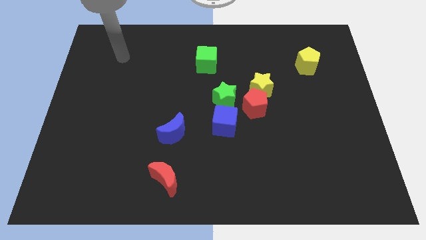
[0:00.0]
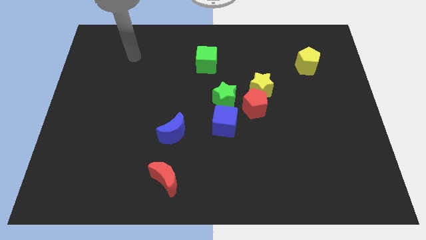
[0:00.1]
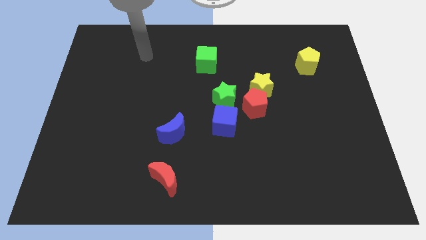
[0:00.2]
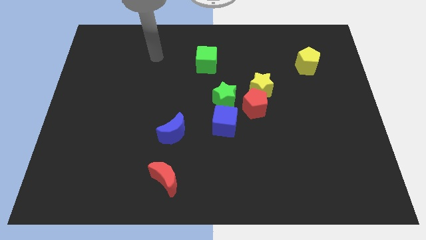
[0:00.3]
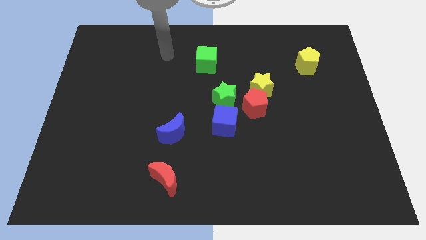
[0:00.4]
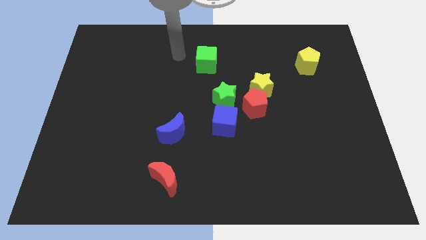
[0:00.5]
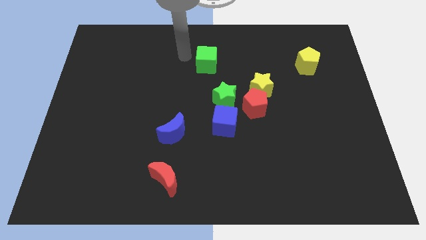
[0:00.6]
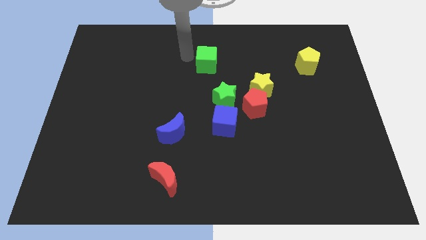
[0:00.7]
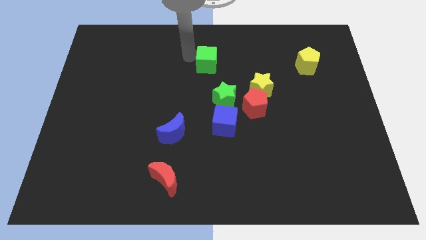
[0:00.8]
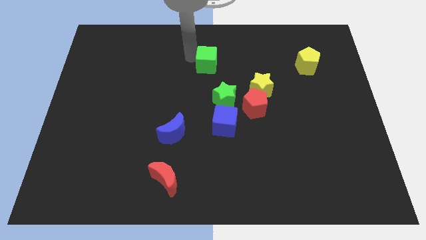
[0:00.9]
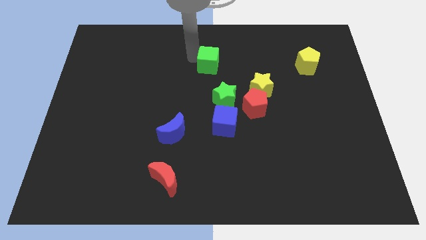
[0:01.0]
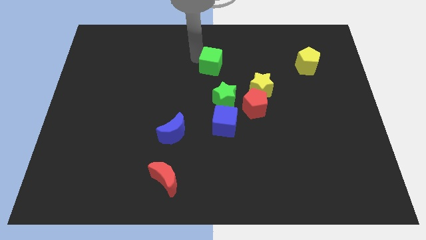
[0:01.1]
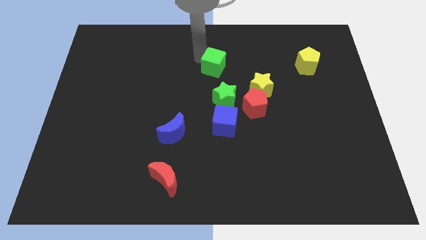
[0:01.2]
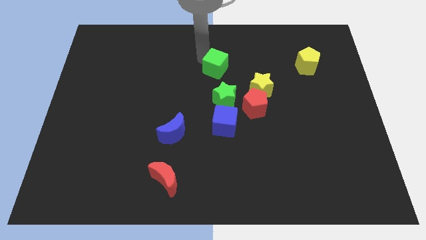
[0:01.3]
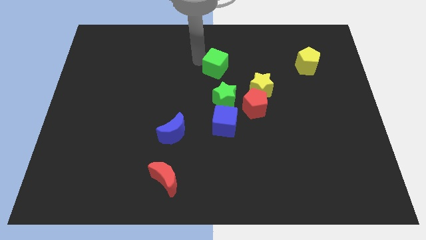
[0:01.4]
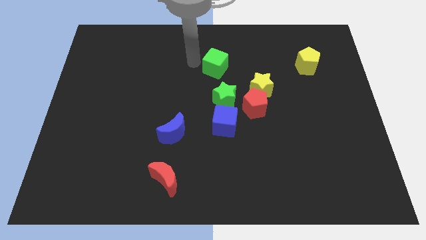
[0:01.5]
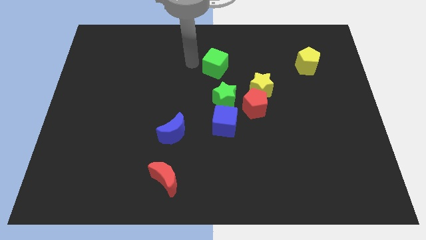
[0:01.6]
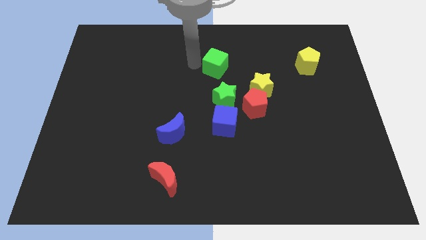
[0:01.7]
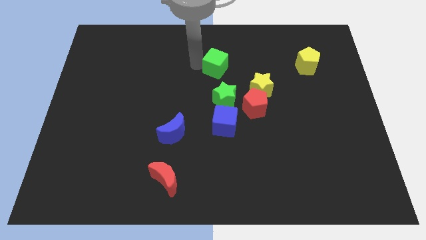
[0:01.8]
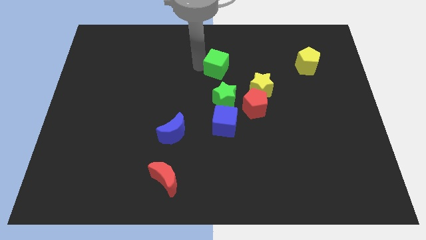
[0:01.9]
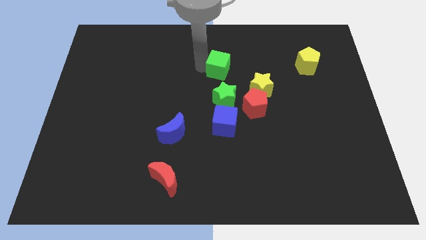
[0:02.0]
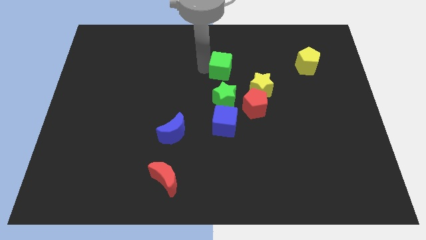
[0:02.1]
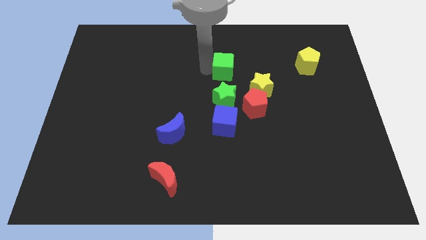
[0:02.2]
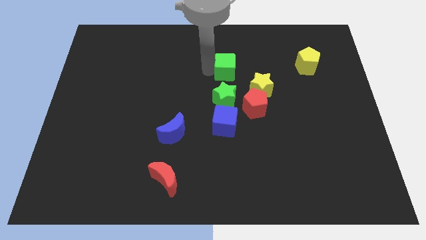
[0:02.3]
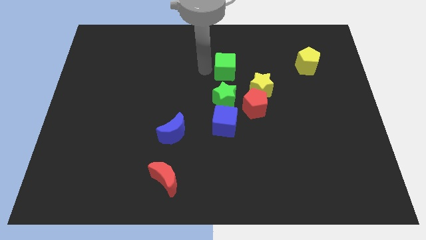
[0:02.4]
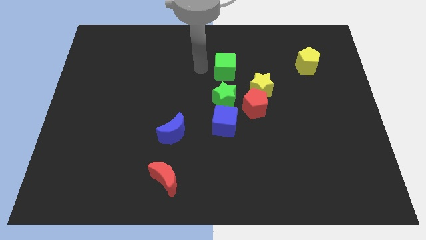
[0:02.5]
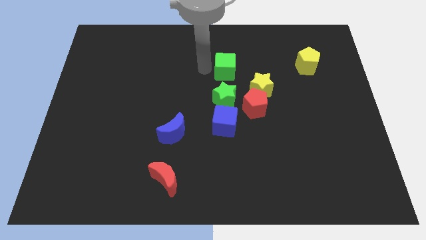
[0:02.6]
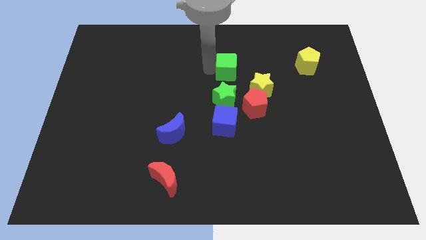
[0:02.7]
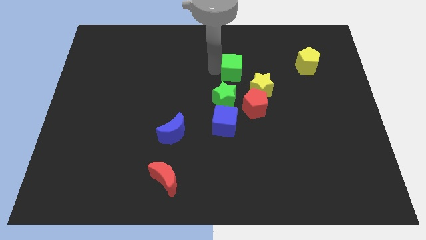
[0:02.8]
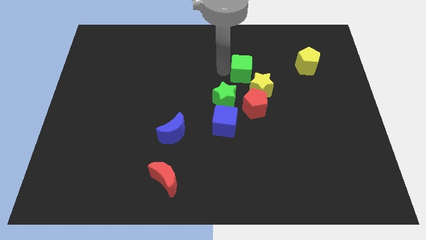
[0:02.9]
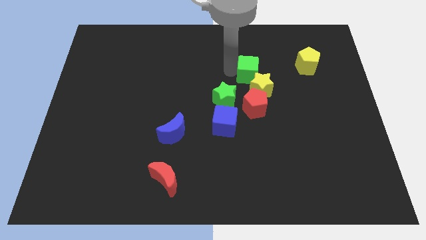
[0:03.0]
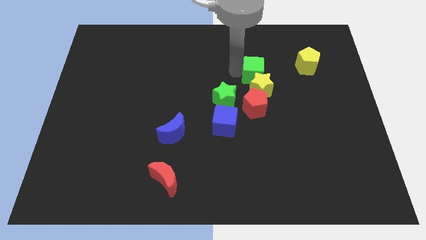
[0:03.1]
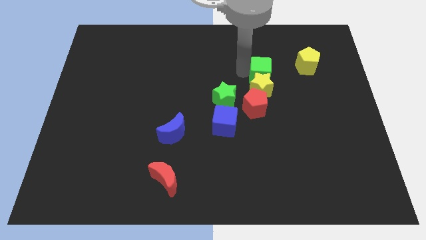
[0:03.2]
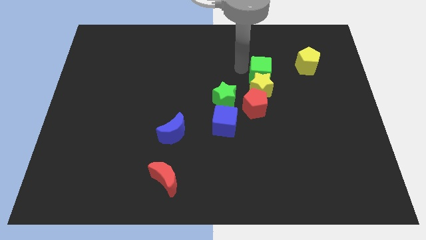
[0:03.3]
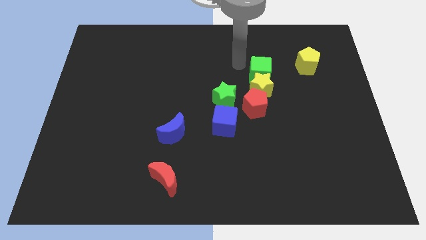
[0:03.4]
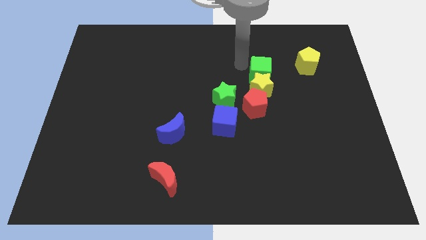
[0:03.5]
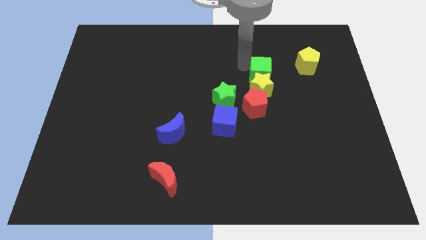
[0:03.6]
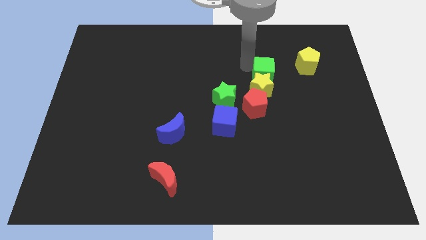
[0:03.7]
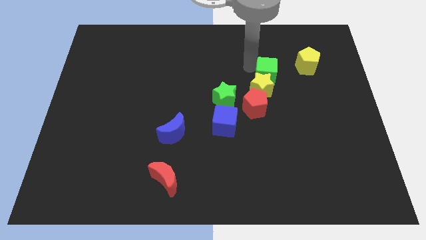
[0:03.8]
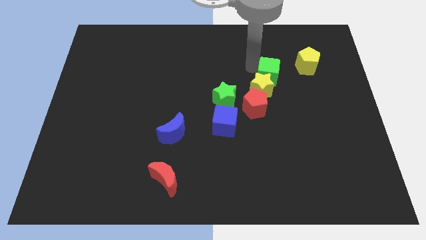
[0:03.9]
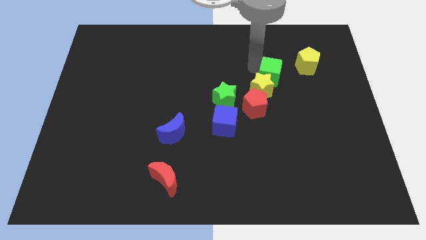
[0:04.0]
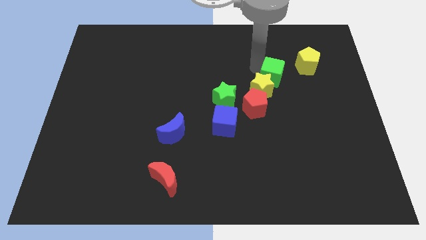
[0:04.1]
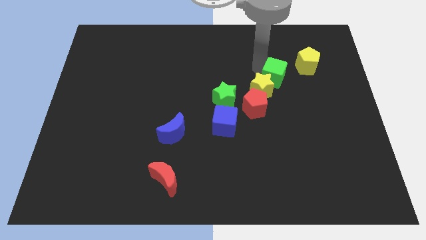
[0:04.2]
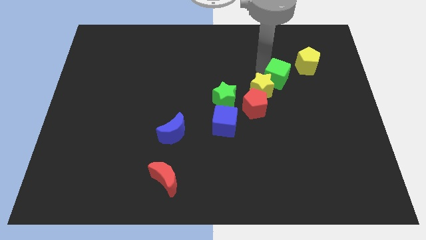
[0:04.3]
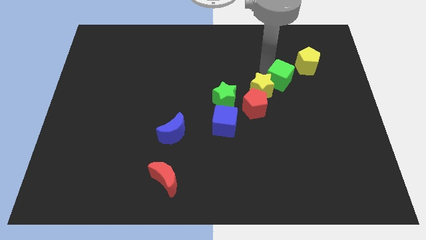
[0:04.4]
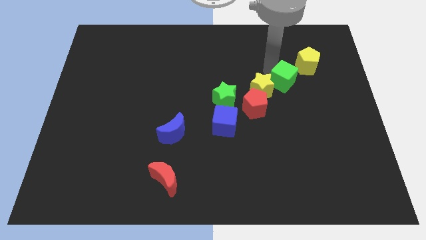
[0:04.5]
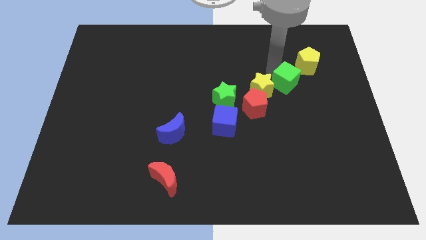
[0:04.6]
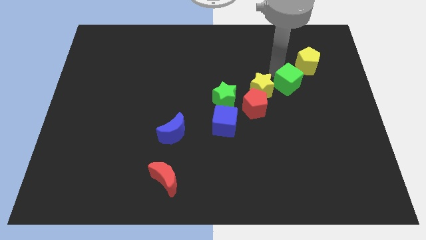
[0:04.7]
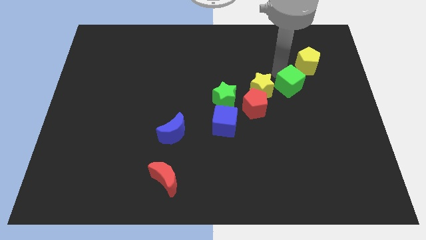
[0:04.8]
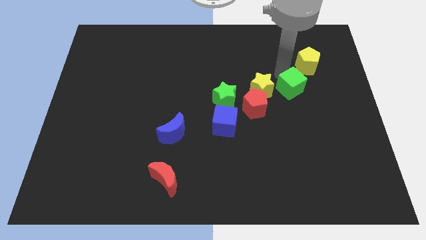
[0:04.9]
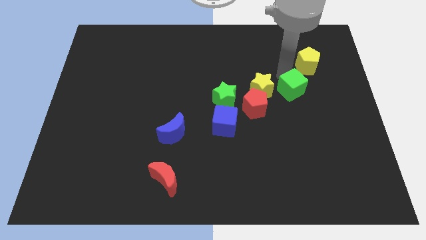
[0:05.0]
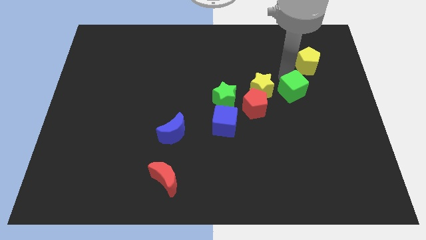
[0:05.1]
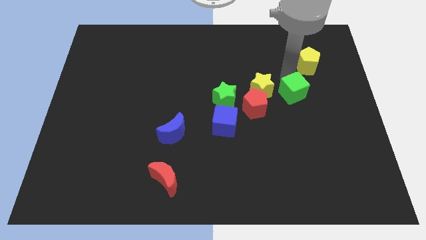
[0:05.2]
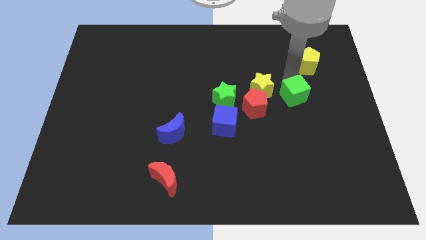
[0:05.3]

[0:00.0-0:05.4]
push the green cube diagonally down and right

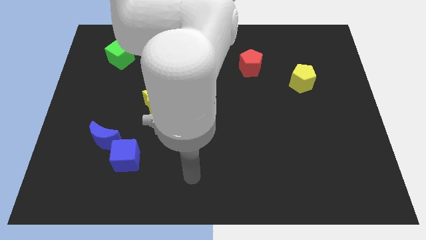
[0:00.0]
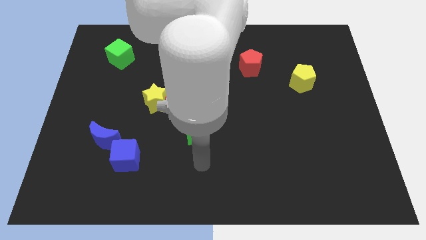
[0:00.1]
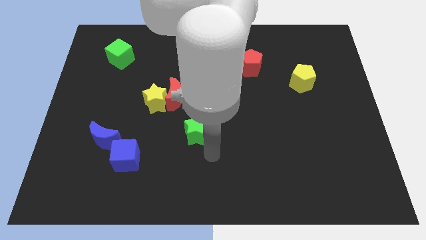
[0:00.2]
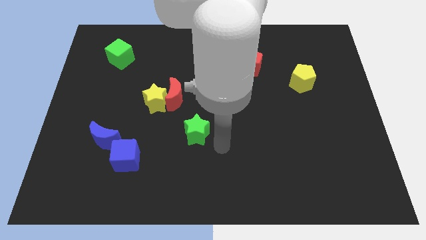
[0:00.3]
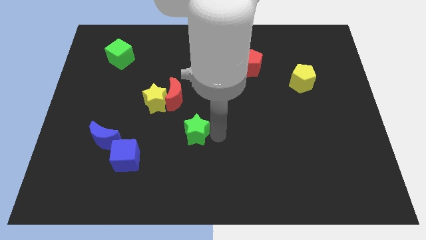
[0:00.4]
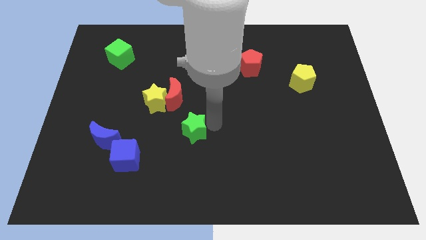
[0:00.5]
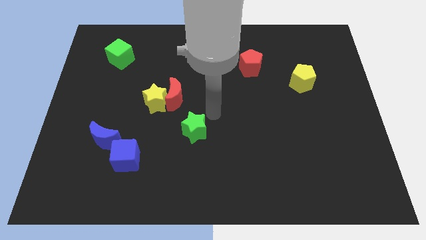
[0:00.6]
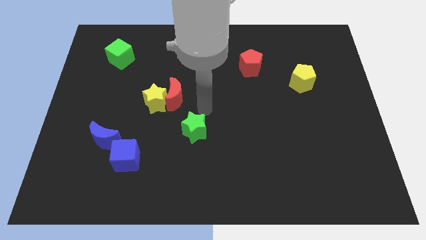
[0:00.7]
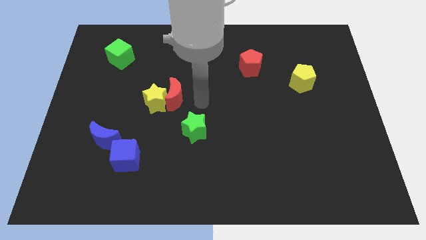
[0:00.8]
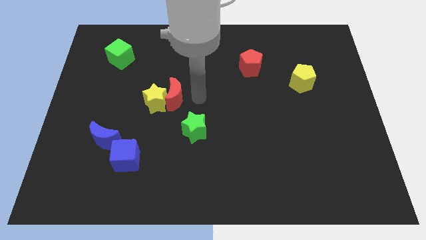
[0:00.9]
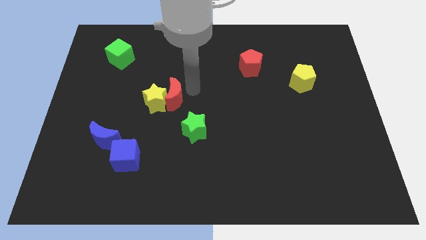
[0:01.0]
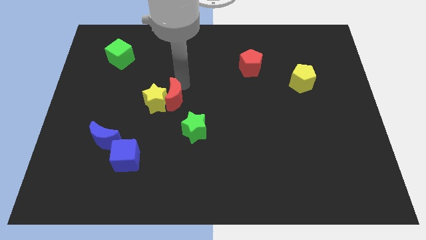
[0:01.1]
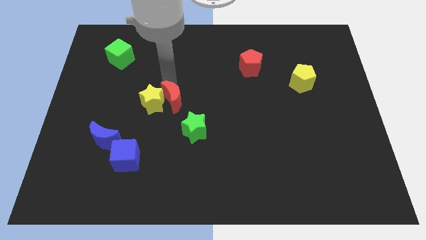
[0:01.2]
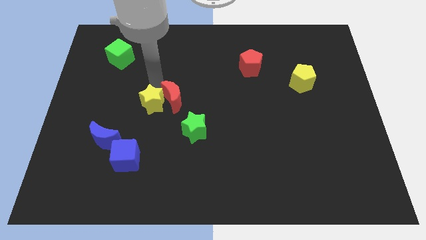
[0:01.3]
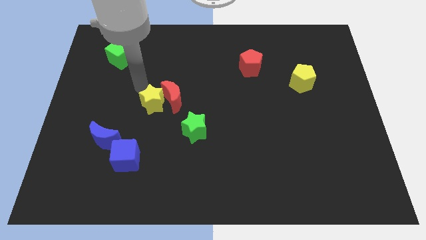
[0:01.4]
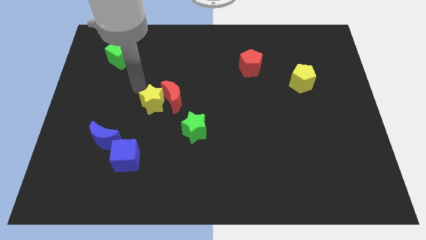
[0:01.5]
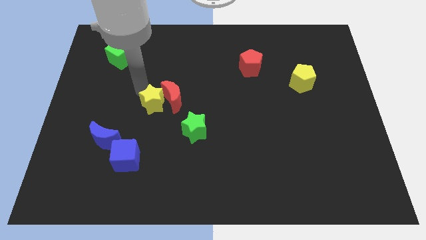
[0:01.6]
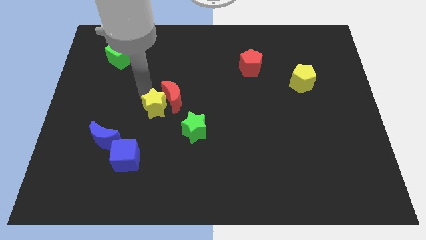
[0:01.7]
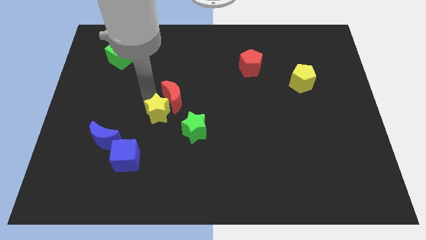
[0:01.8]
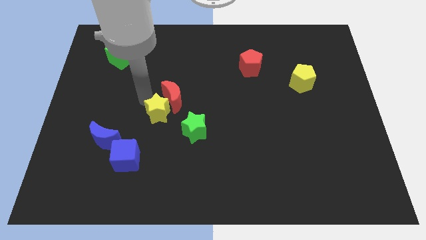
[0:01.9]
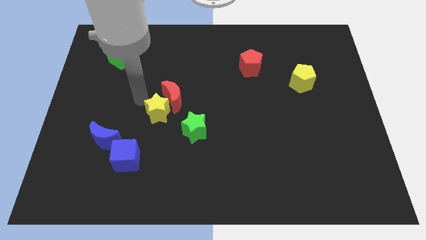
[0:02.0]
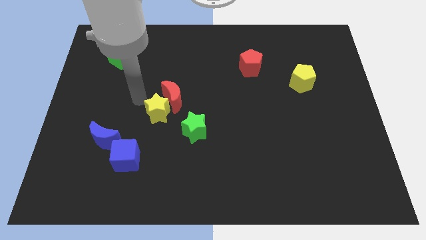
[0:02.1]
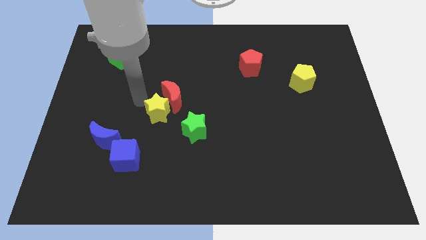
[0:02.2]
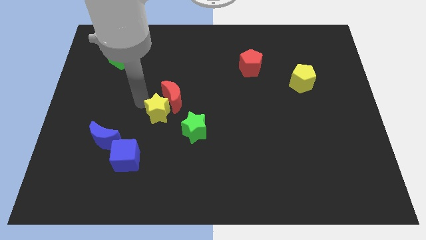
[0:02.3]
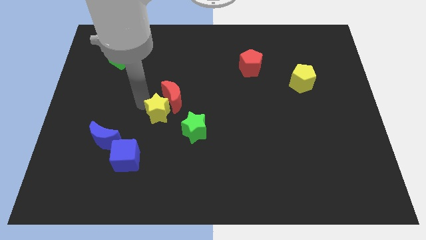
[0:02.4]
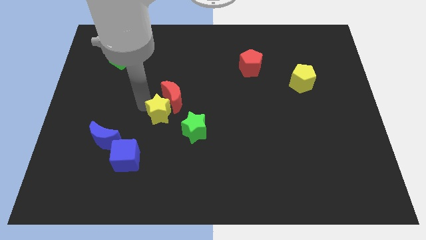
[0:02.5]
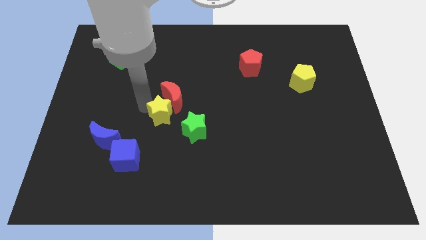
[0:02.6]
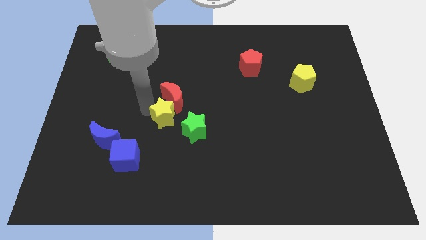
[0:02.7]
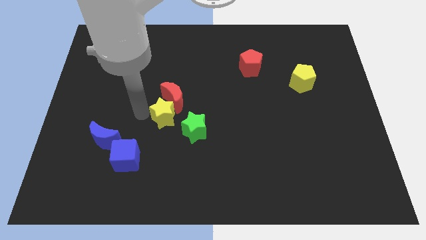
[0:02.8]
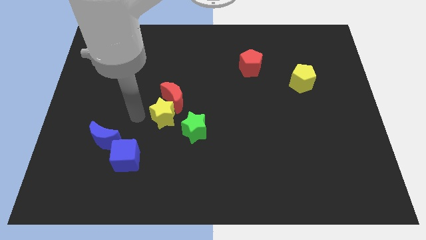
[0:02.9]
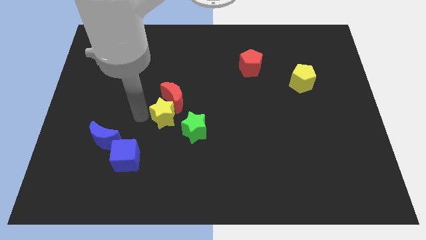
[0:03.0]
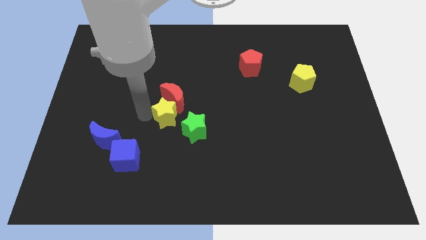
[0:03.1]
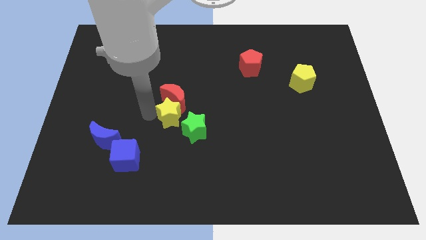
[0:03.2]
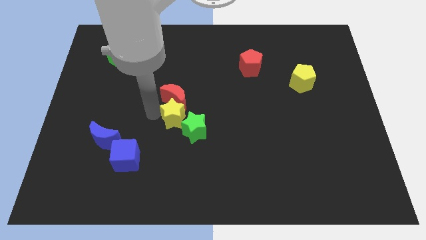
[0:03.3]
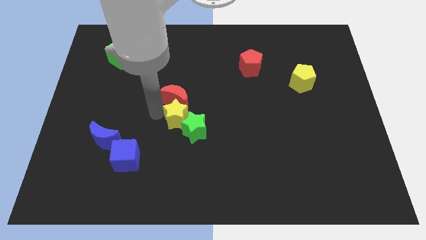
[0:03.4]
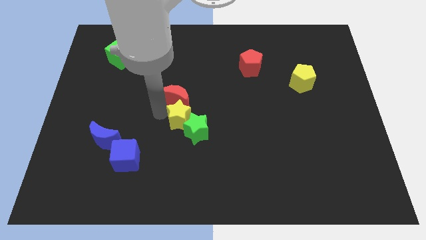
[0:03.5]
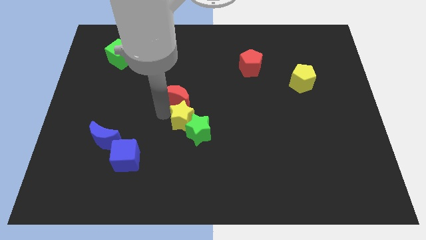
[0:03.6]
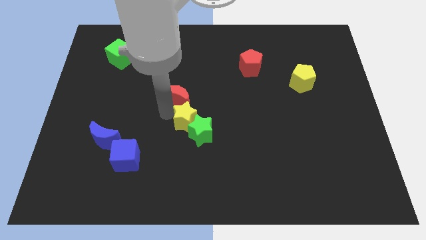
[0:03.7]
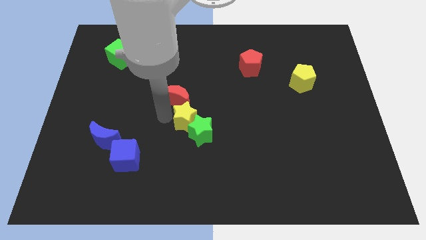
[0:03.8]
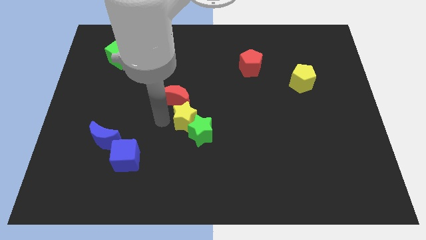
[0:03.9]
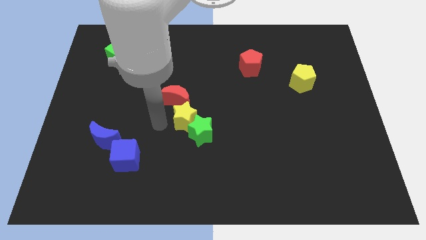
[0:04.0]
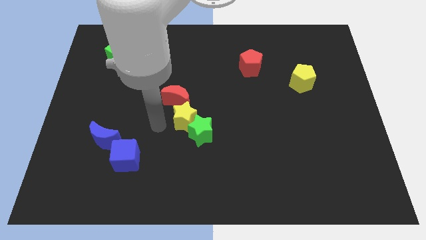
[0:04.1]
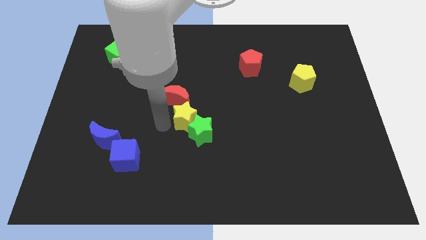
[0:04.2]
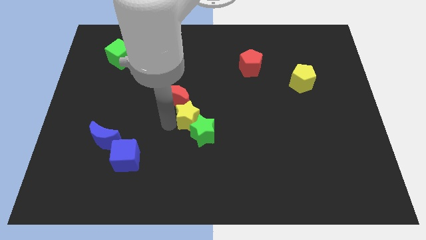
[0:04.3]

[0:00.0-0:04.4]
push the yellow star slightly right
